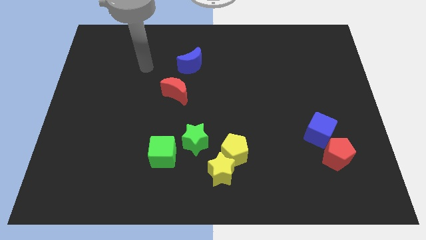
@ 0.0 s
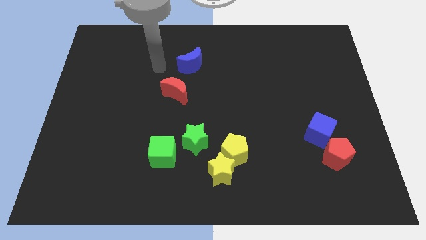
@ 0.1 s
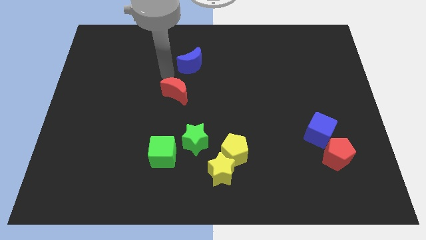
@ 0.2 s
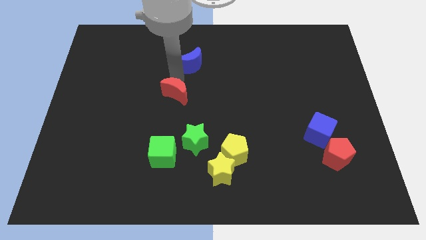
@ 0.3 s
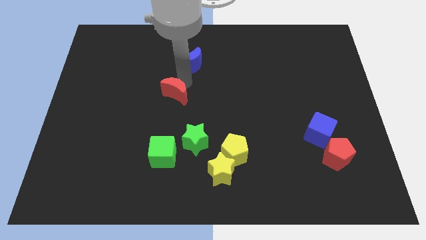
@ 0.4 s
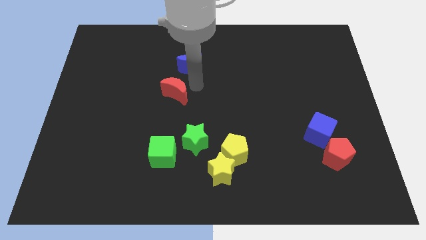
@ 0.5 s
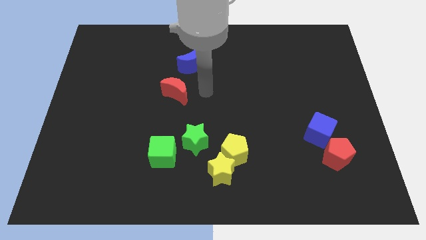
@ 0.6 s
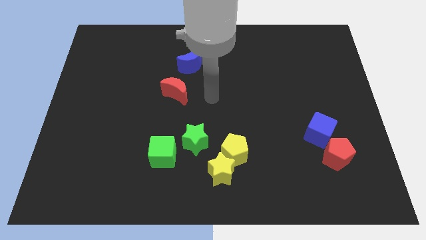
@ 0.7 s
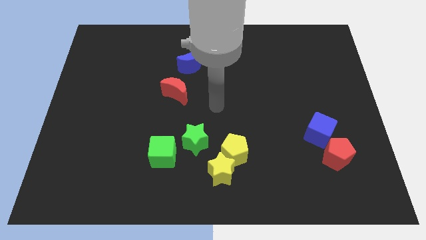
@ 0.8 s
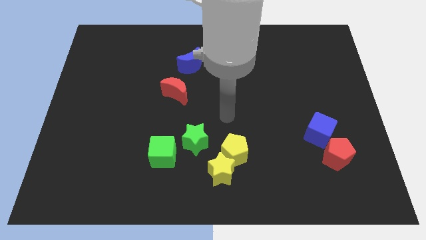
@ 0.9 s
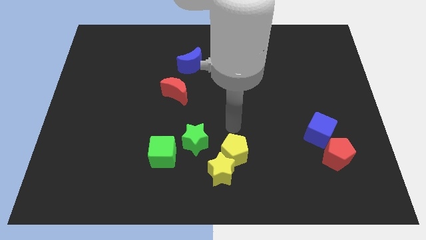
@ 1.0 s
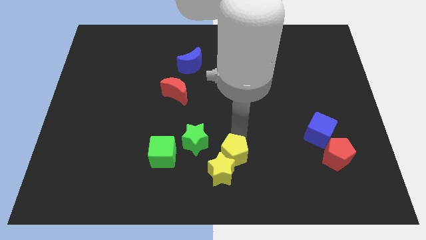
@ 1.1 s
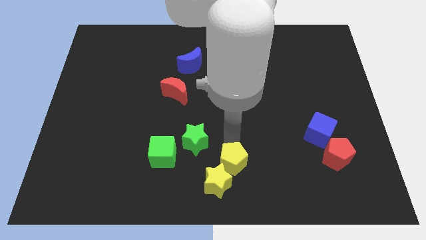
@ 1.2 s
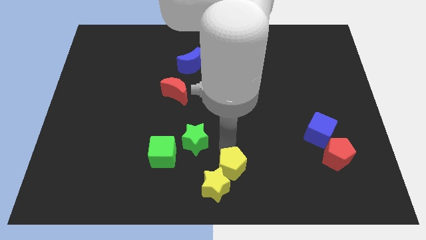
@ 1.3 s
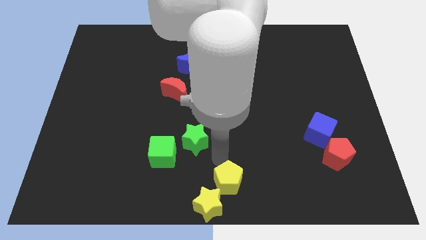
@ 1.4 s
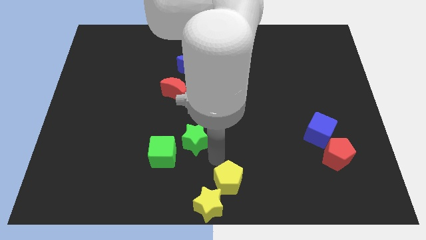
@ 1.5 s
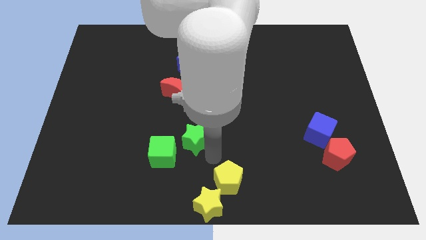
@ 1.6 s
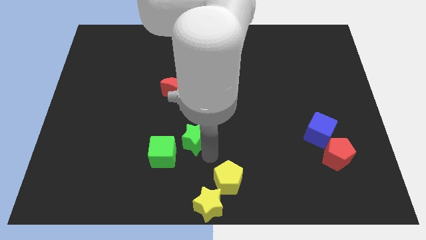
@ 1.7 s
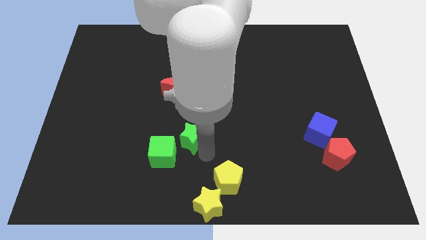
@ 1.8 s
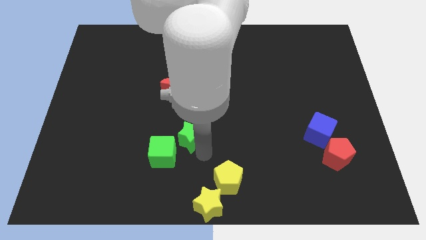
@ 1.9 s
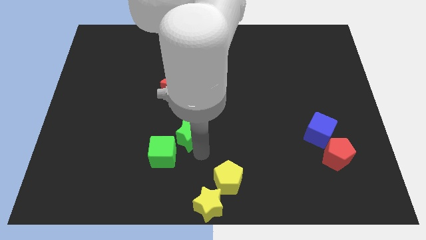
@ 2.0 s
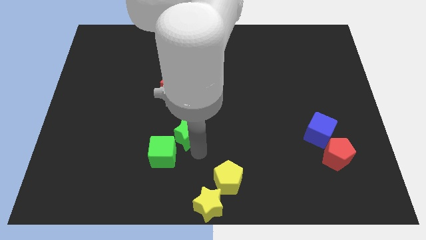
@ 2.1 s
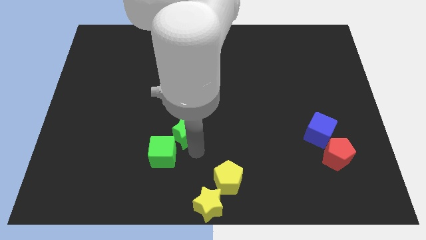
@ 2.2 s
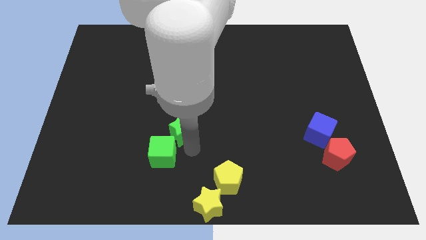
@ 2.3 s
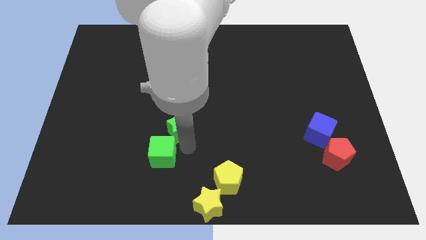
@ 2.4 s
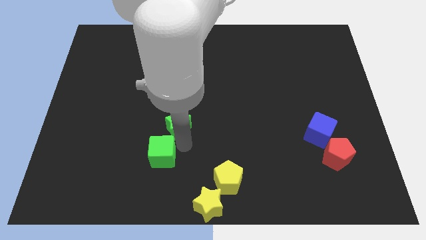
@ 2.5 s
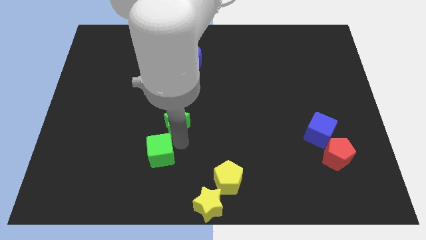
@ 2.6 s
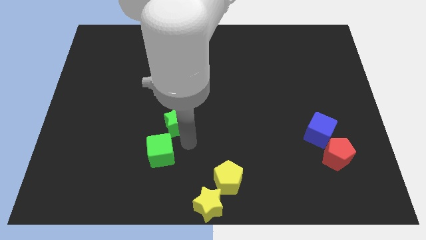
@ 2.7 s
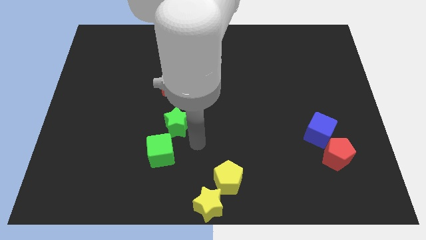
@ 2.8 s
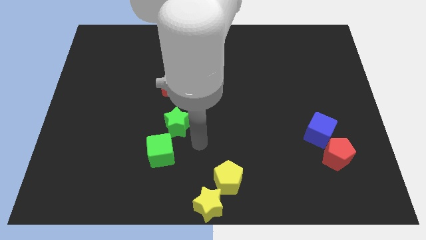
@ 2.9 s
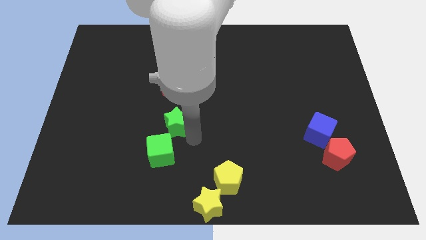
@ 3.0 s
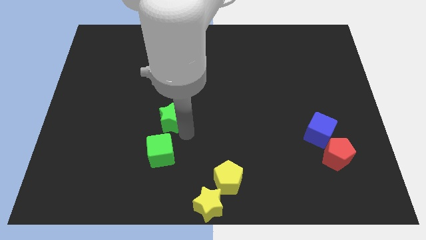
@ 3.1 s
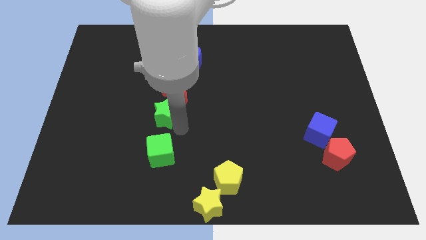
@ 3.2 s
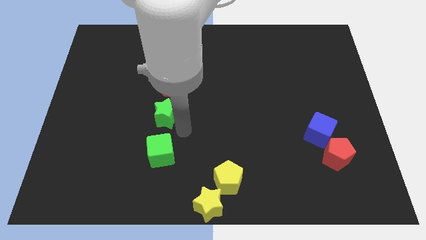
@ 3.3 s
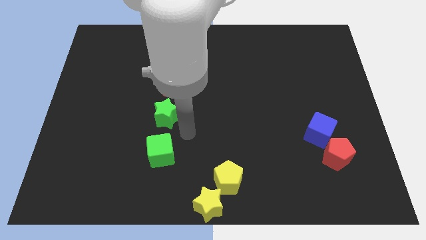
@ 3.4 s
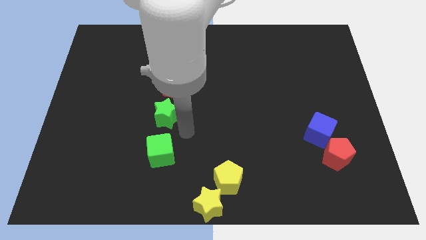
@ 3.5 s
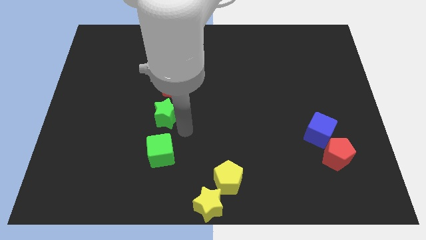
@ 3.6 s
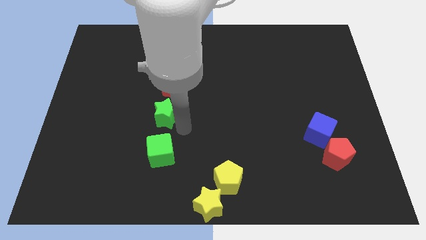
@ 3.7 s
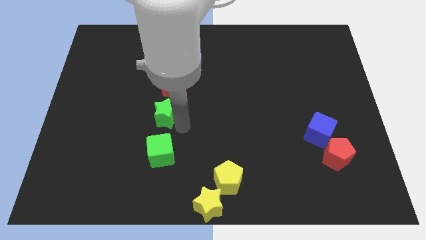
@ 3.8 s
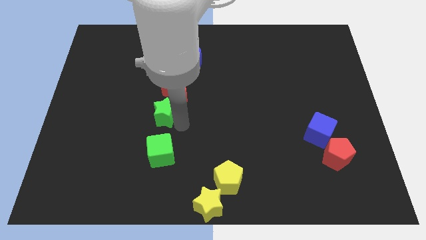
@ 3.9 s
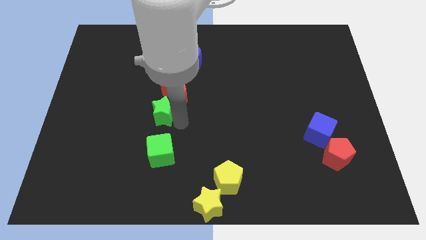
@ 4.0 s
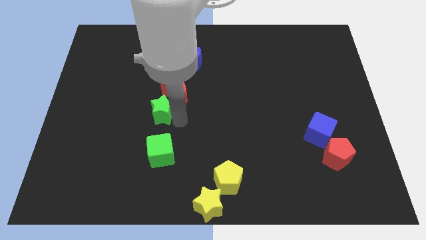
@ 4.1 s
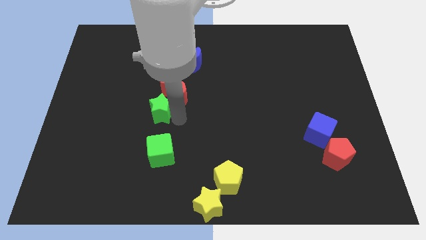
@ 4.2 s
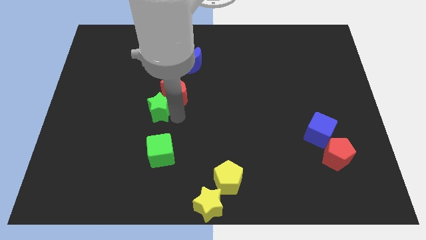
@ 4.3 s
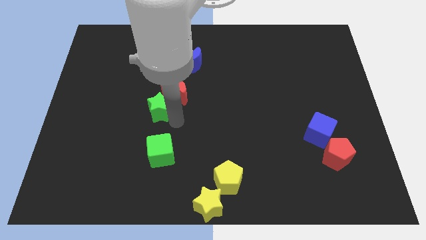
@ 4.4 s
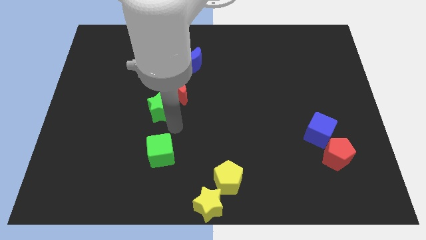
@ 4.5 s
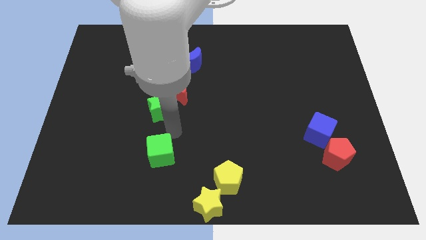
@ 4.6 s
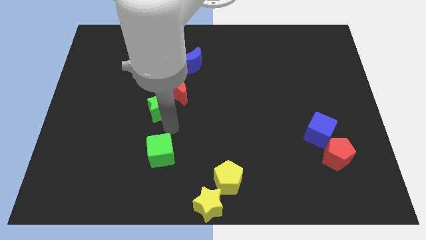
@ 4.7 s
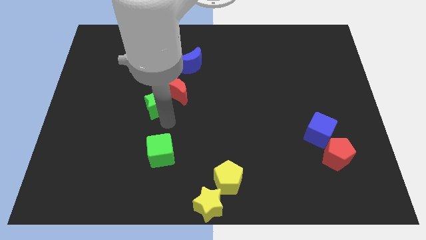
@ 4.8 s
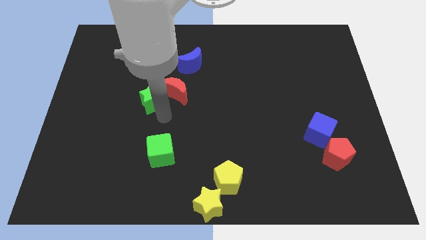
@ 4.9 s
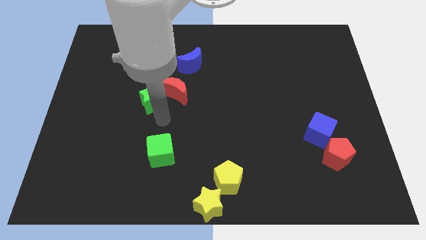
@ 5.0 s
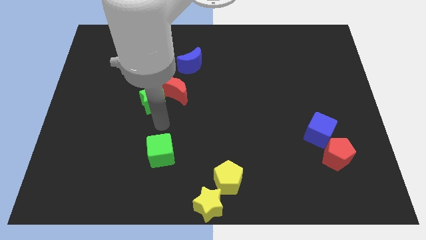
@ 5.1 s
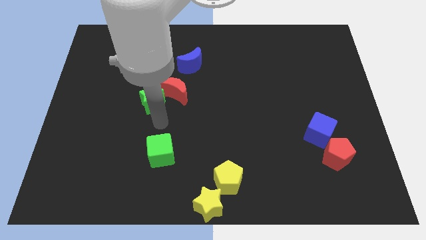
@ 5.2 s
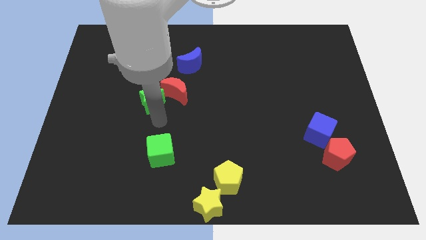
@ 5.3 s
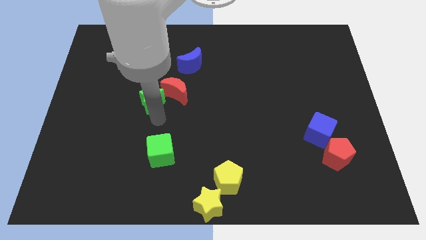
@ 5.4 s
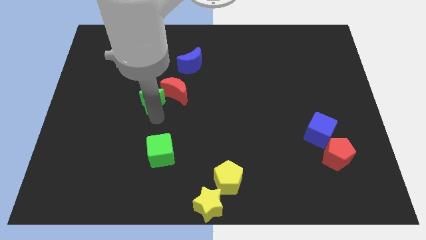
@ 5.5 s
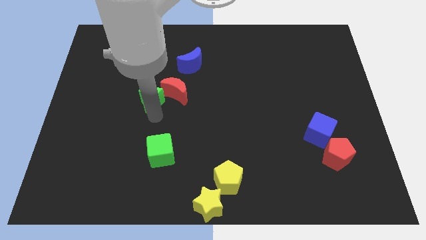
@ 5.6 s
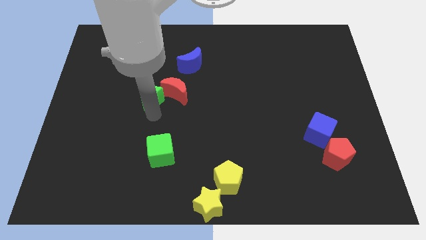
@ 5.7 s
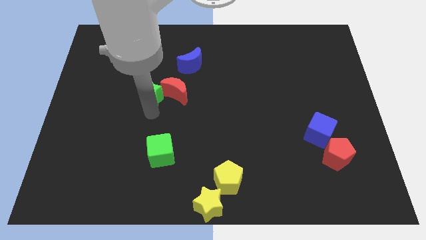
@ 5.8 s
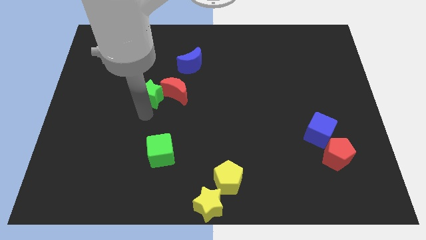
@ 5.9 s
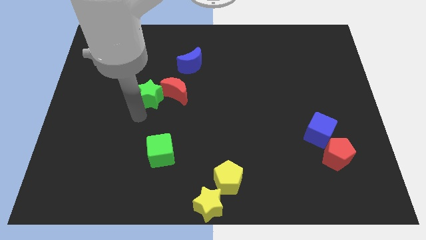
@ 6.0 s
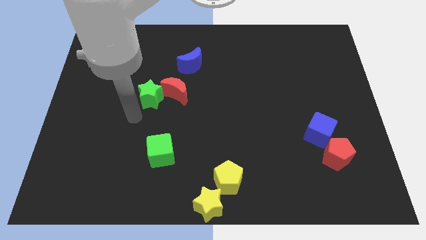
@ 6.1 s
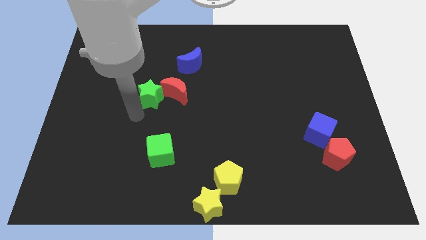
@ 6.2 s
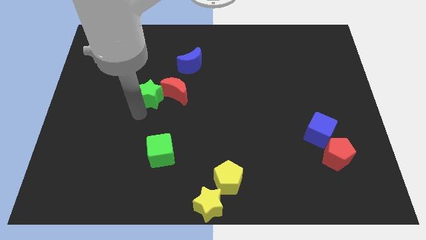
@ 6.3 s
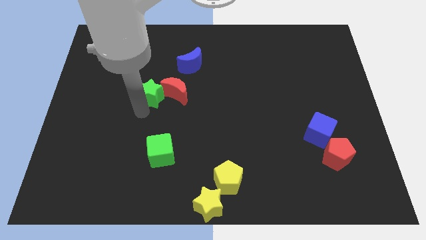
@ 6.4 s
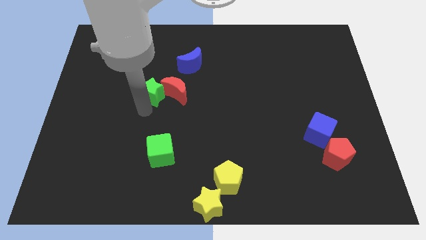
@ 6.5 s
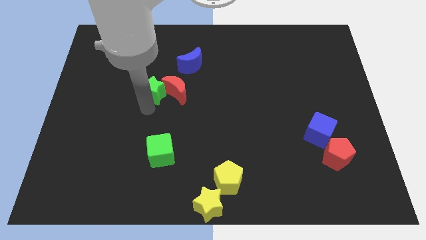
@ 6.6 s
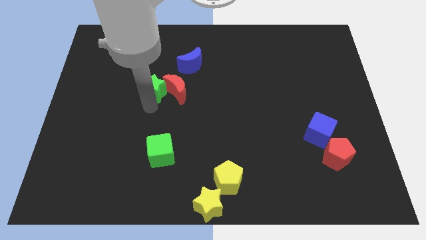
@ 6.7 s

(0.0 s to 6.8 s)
push the green star to the bottom left side of the blue moon

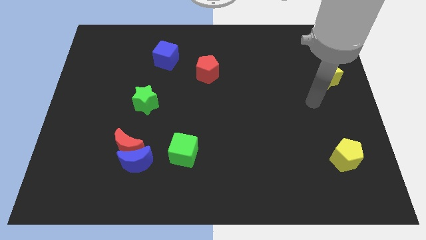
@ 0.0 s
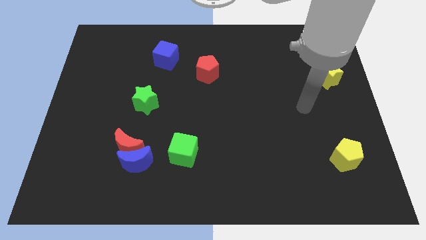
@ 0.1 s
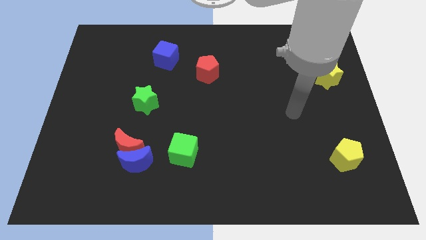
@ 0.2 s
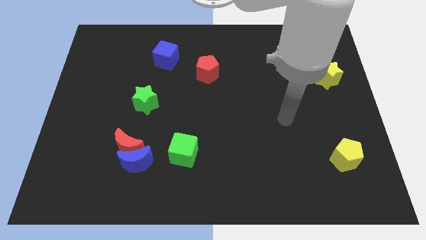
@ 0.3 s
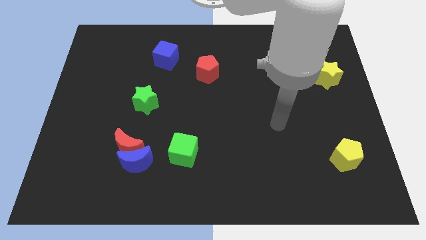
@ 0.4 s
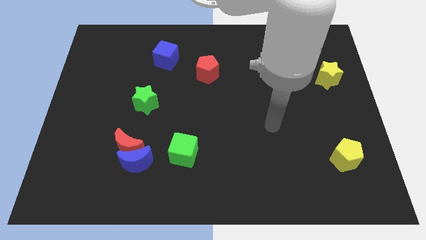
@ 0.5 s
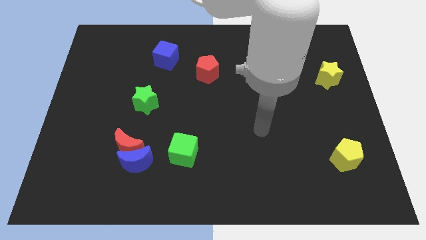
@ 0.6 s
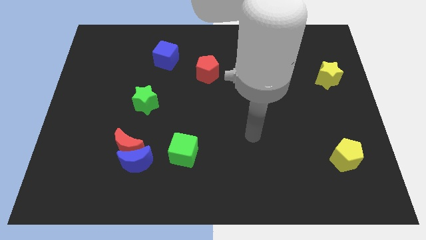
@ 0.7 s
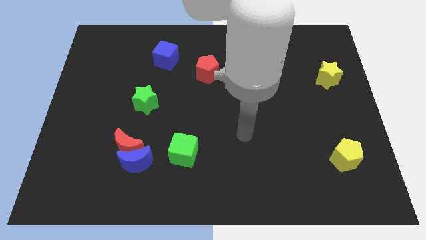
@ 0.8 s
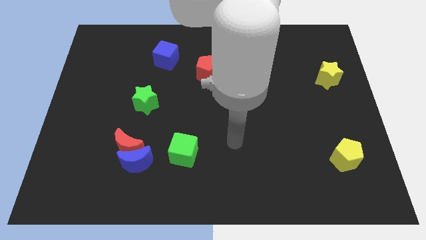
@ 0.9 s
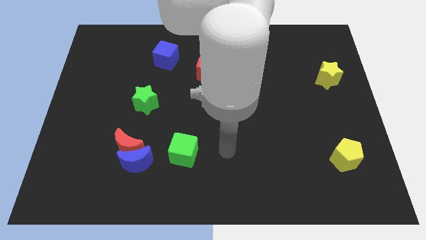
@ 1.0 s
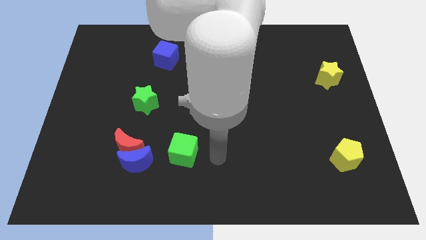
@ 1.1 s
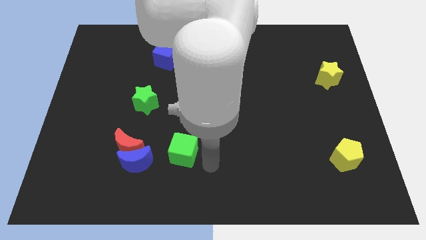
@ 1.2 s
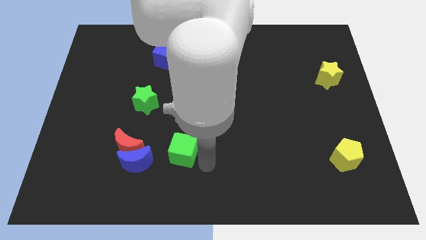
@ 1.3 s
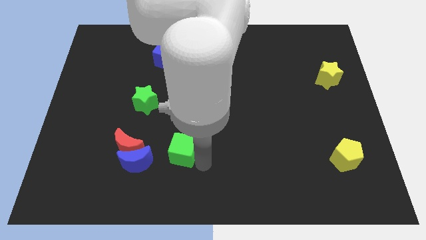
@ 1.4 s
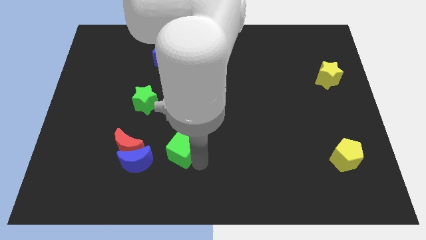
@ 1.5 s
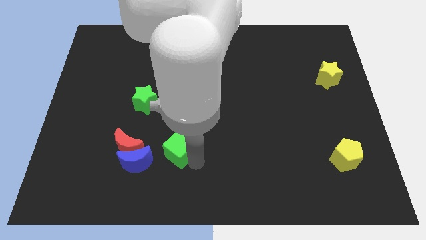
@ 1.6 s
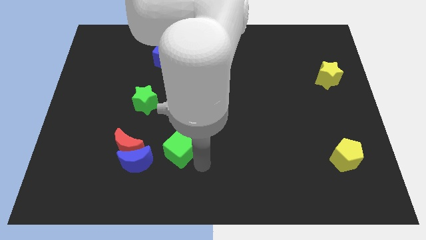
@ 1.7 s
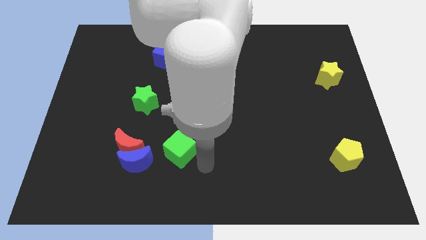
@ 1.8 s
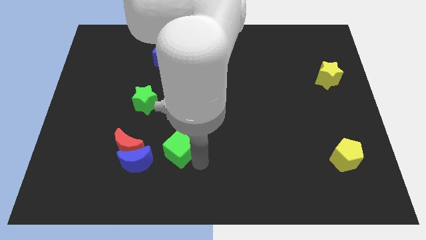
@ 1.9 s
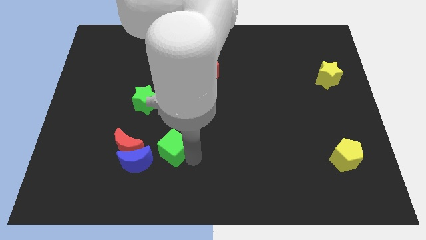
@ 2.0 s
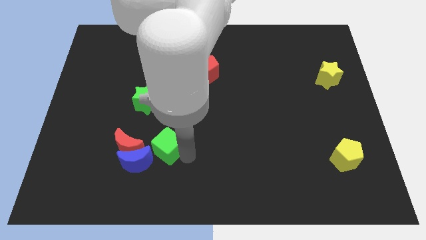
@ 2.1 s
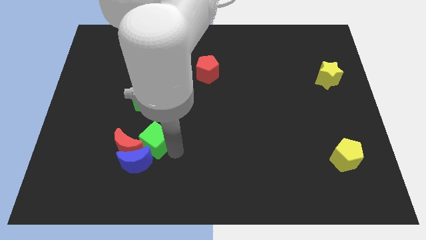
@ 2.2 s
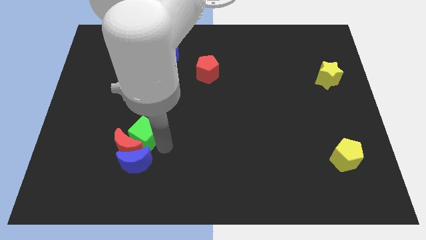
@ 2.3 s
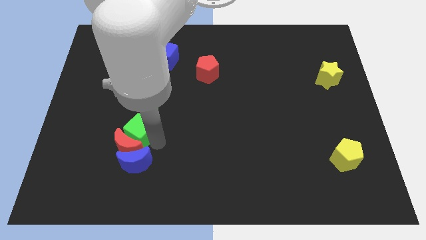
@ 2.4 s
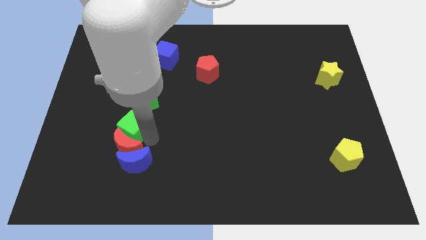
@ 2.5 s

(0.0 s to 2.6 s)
slide the green cube diagonally down and to the left of the green star
